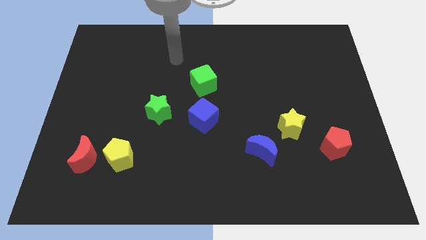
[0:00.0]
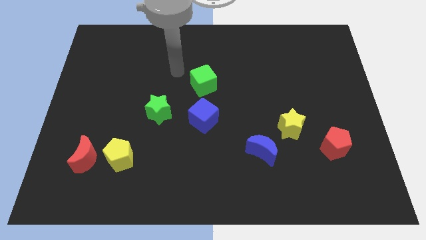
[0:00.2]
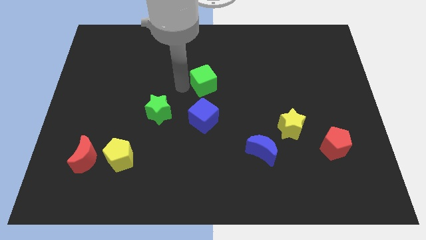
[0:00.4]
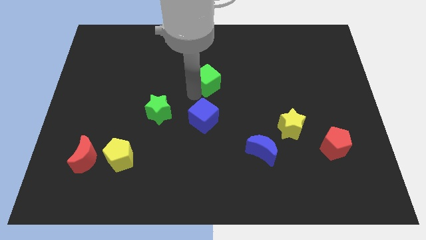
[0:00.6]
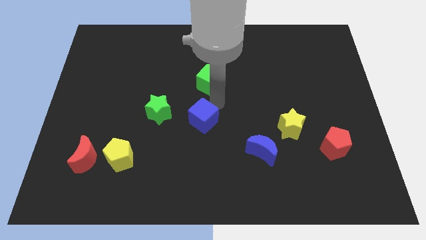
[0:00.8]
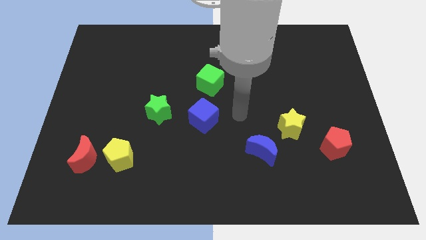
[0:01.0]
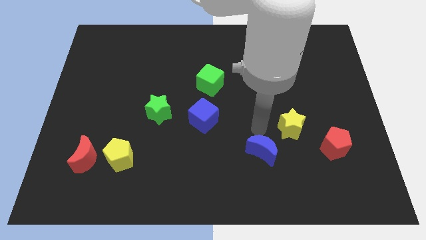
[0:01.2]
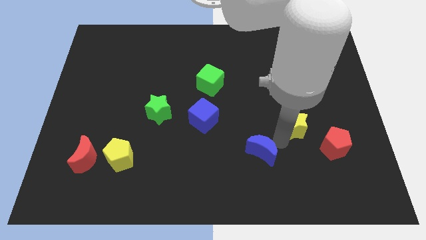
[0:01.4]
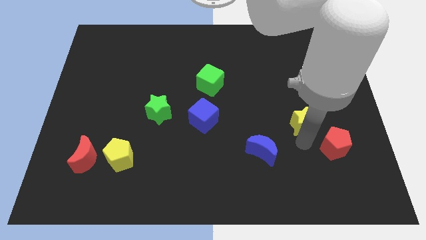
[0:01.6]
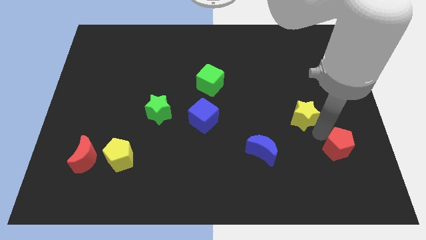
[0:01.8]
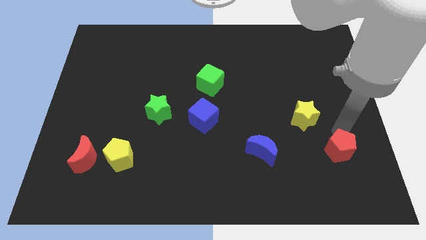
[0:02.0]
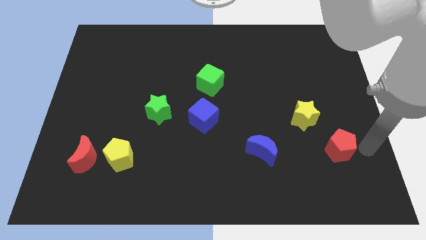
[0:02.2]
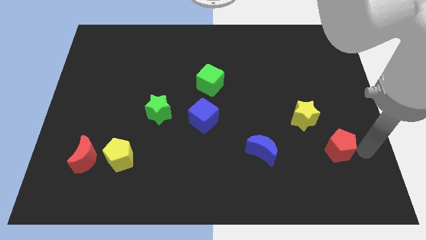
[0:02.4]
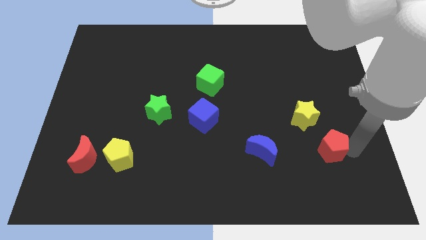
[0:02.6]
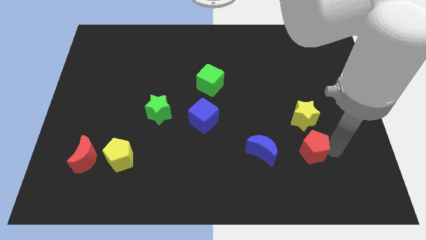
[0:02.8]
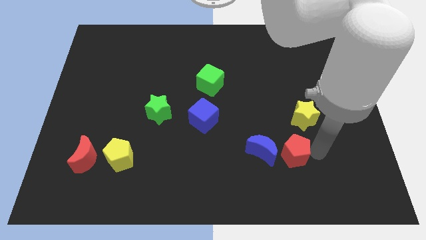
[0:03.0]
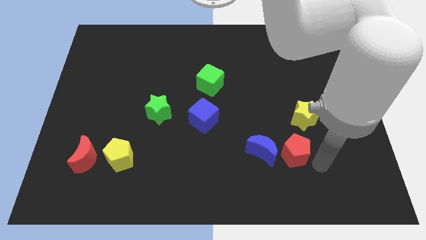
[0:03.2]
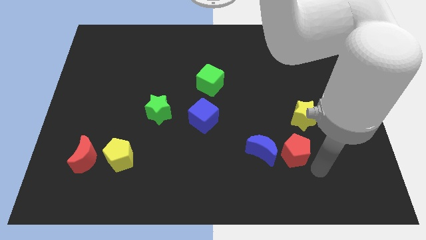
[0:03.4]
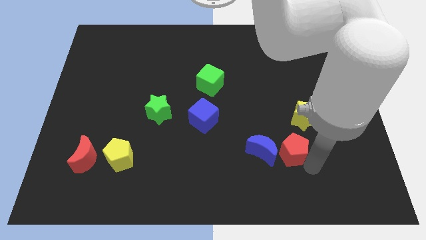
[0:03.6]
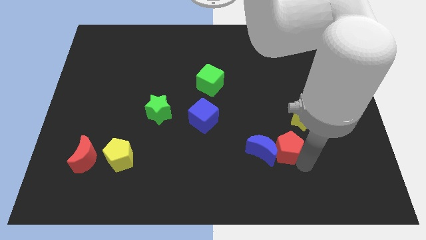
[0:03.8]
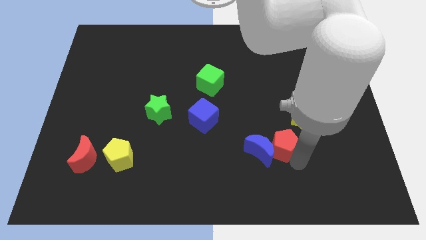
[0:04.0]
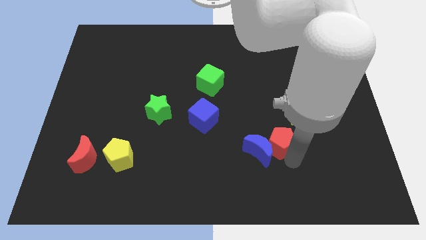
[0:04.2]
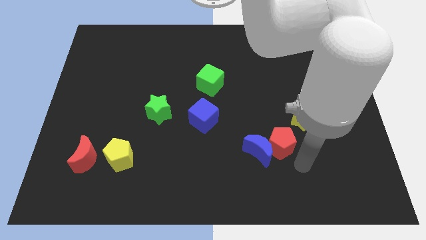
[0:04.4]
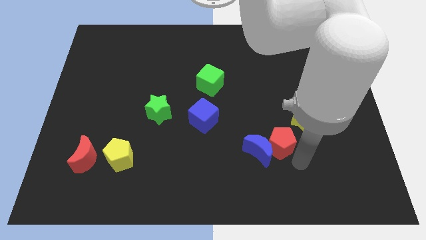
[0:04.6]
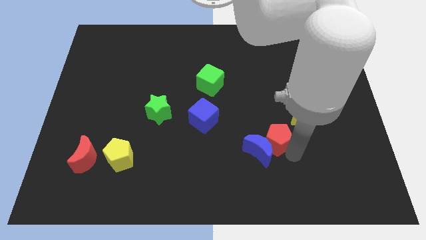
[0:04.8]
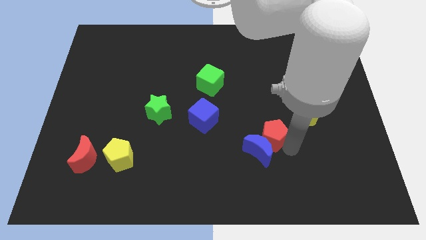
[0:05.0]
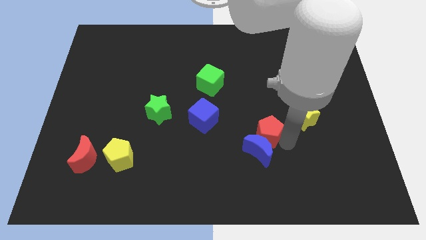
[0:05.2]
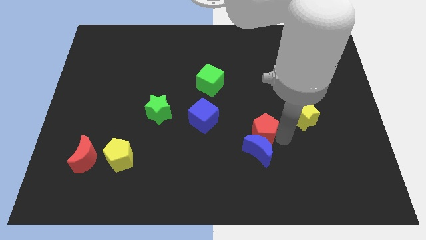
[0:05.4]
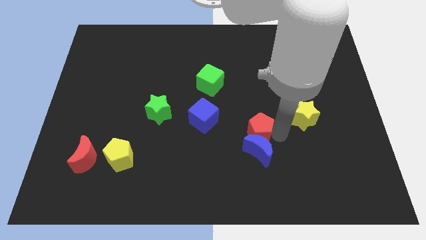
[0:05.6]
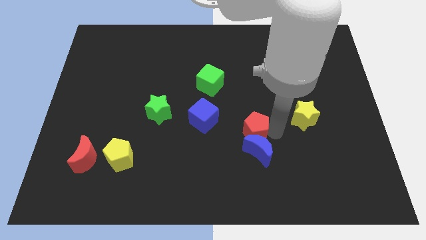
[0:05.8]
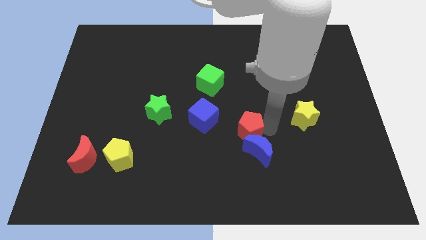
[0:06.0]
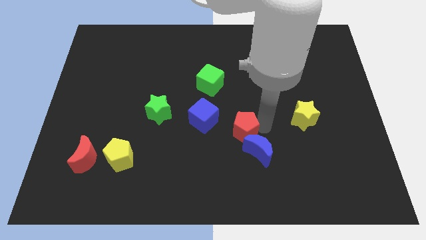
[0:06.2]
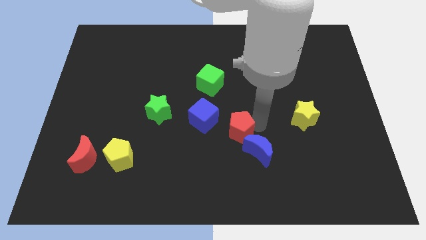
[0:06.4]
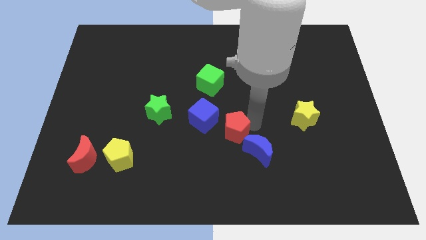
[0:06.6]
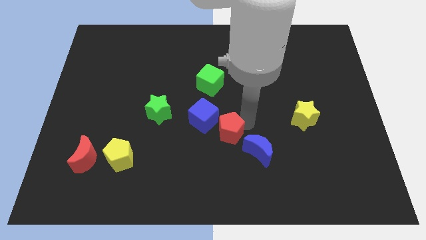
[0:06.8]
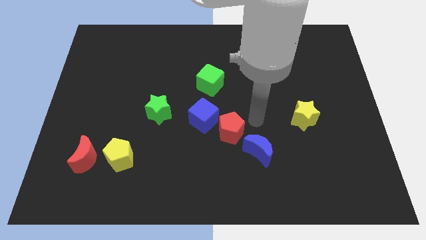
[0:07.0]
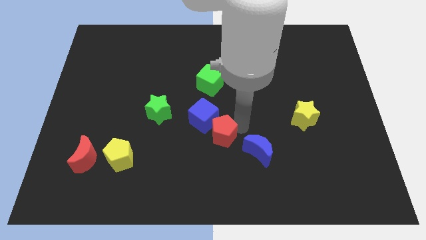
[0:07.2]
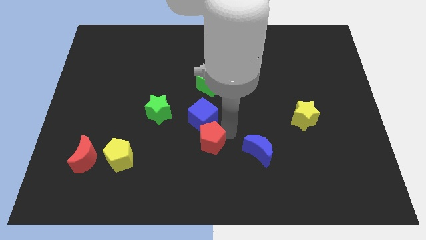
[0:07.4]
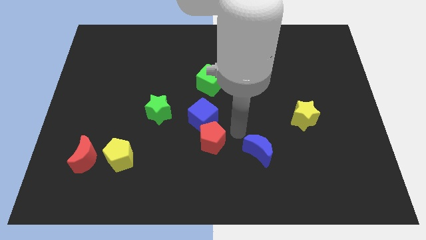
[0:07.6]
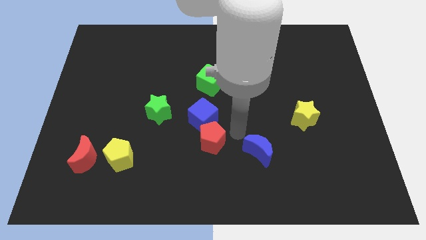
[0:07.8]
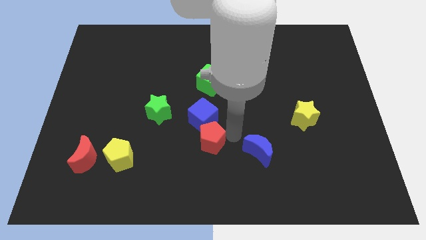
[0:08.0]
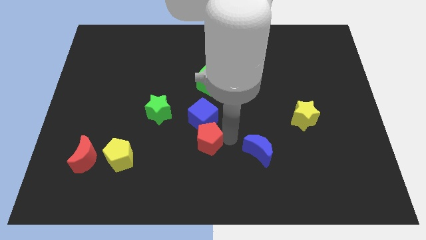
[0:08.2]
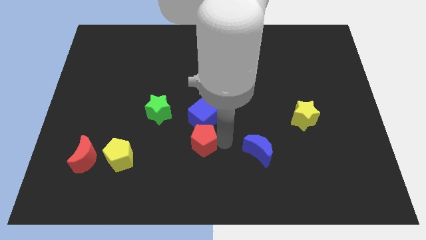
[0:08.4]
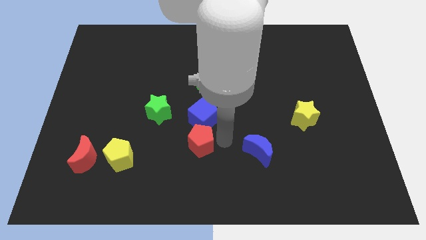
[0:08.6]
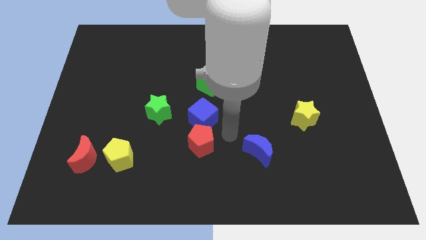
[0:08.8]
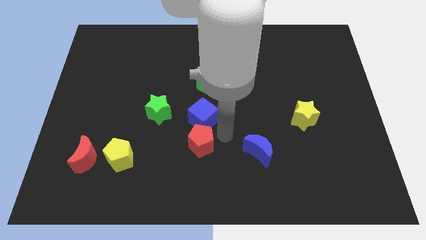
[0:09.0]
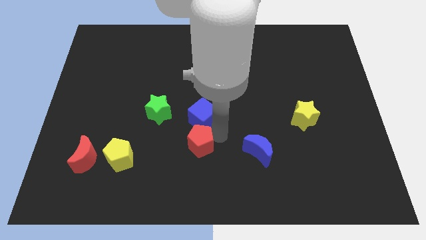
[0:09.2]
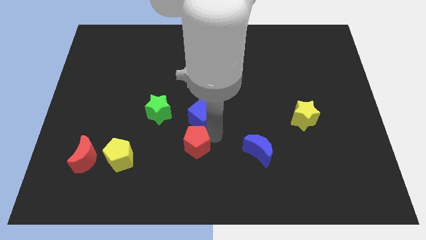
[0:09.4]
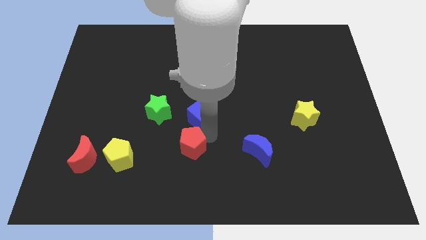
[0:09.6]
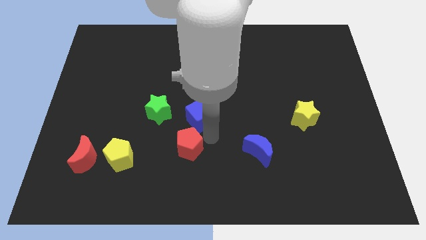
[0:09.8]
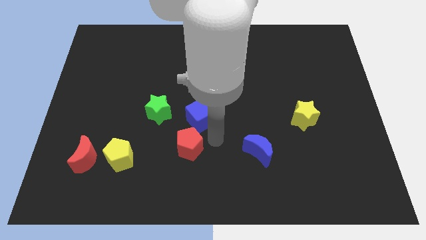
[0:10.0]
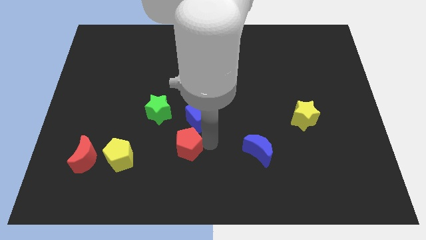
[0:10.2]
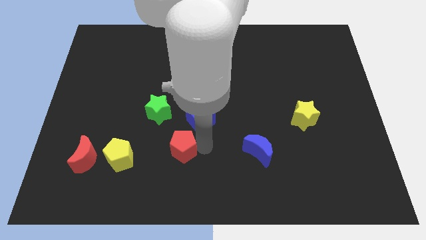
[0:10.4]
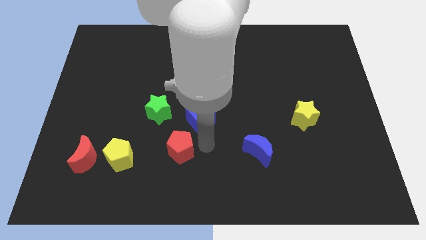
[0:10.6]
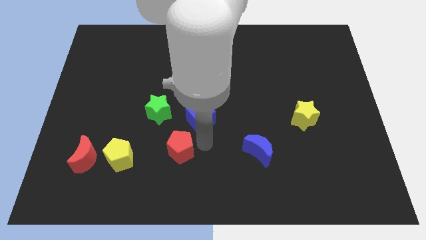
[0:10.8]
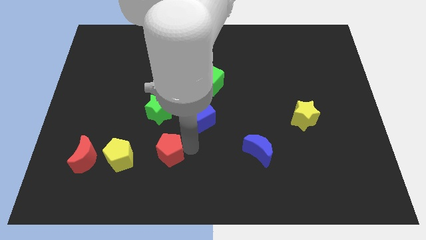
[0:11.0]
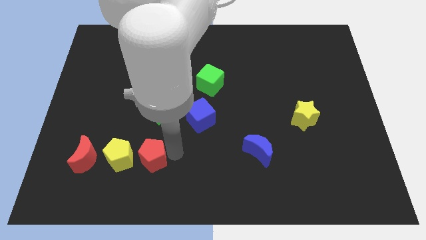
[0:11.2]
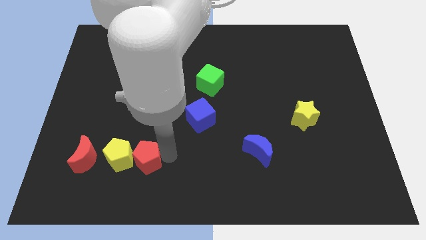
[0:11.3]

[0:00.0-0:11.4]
move the red pentagon towards the yellow pentagon

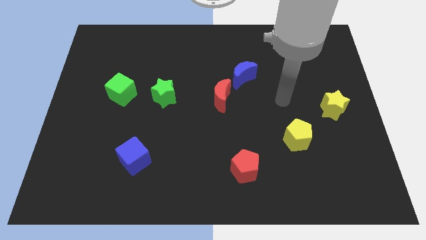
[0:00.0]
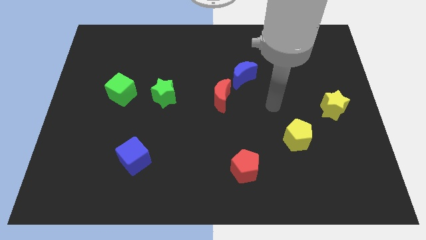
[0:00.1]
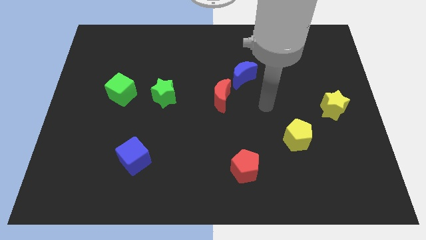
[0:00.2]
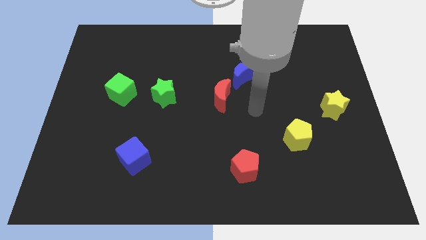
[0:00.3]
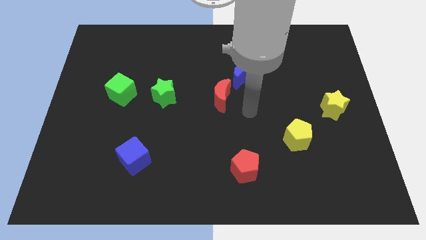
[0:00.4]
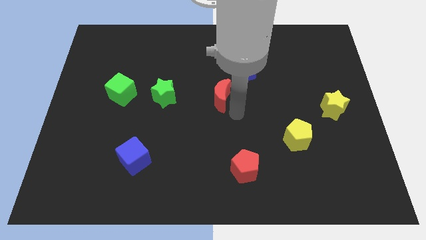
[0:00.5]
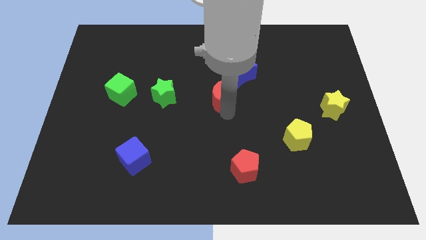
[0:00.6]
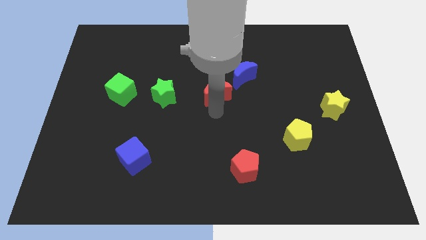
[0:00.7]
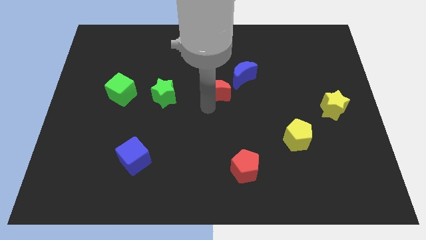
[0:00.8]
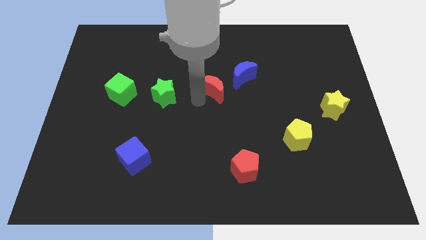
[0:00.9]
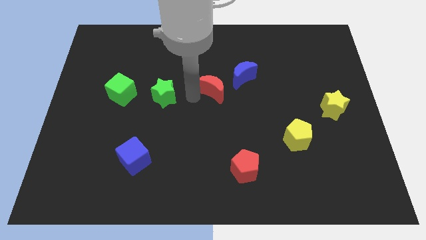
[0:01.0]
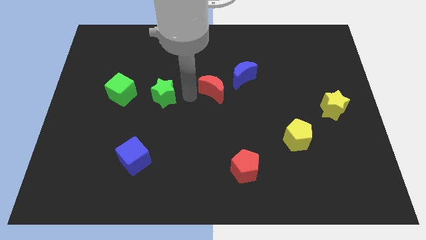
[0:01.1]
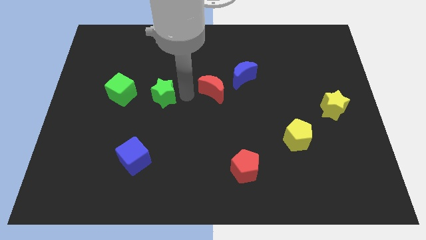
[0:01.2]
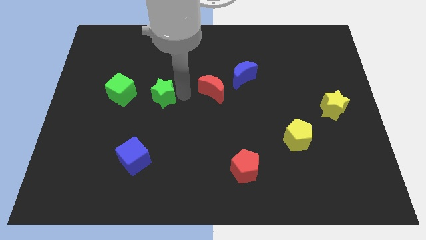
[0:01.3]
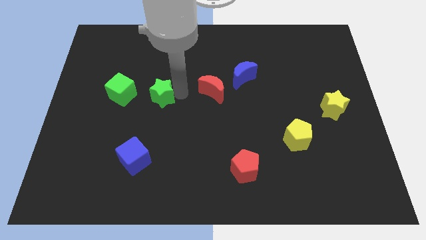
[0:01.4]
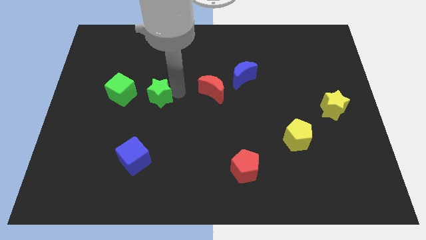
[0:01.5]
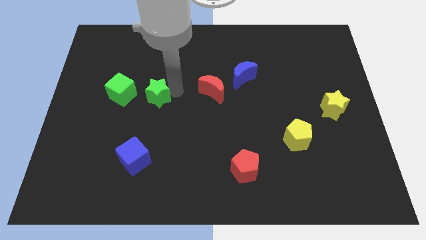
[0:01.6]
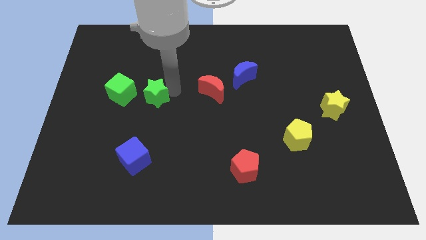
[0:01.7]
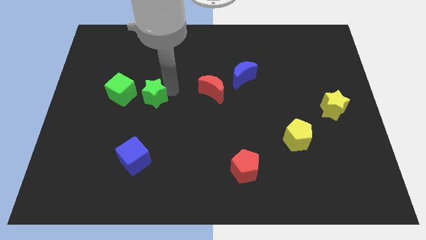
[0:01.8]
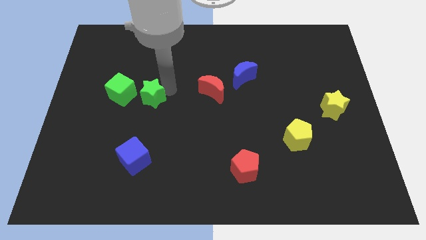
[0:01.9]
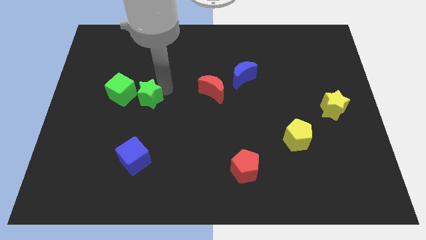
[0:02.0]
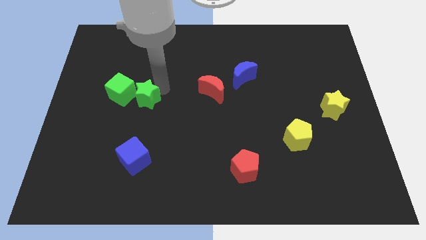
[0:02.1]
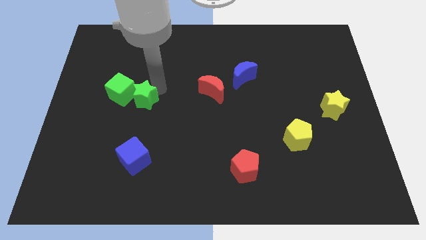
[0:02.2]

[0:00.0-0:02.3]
push the green star towards the green cube
